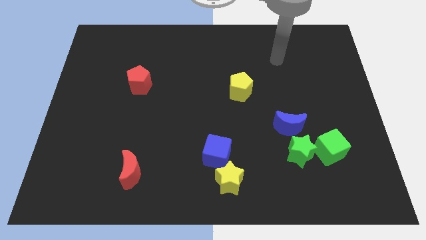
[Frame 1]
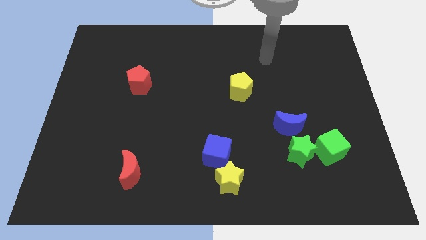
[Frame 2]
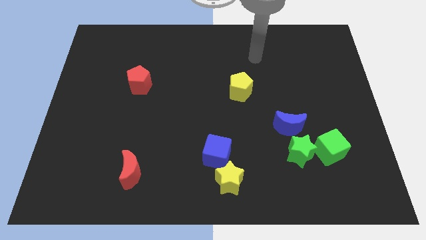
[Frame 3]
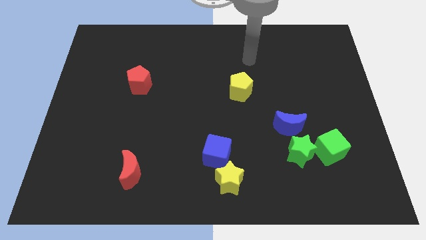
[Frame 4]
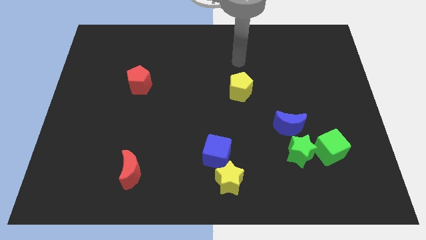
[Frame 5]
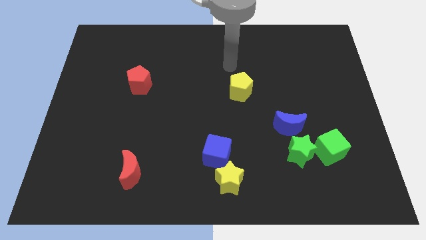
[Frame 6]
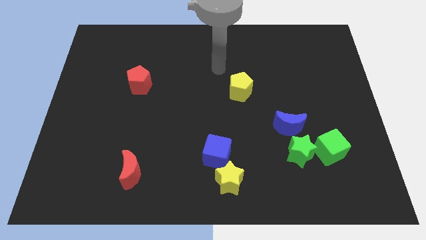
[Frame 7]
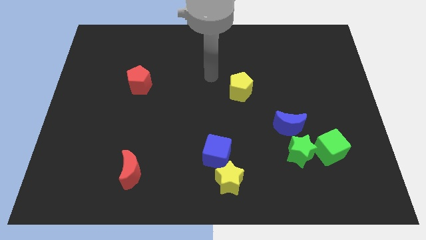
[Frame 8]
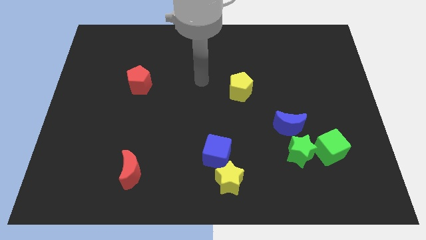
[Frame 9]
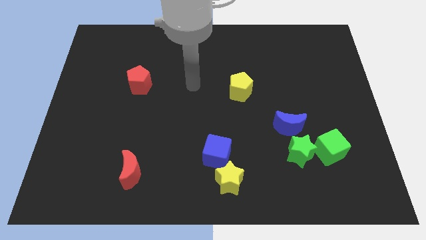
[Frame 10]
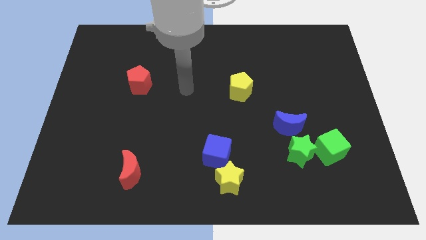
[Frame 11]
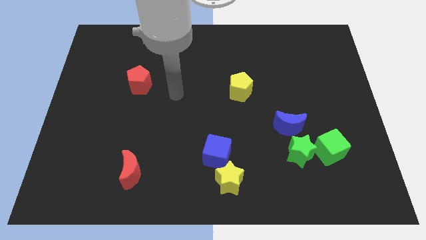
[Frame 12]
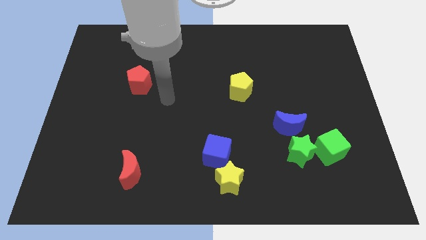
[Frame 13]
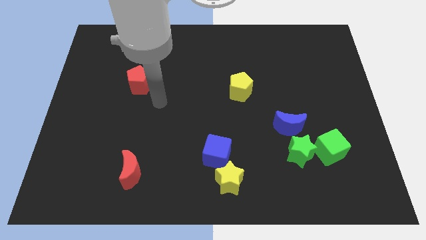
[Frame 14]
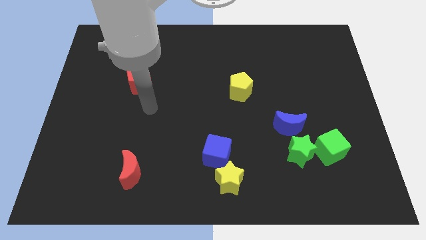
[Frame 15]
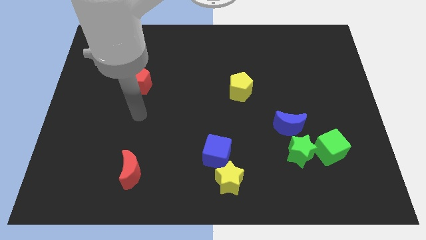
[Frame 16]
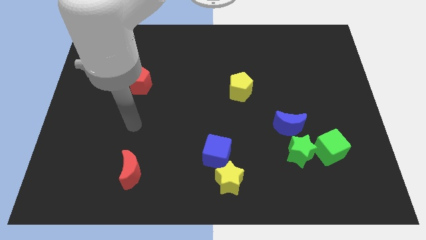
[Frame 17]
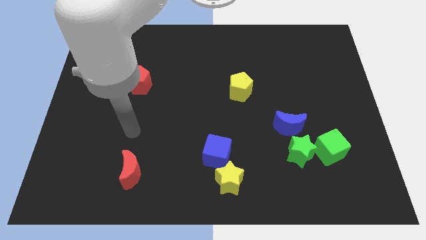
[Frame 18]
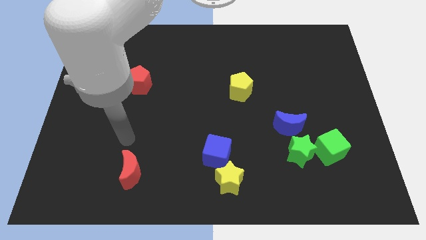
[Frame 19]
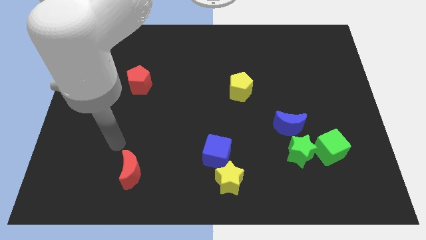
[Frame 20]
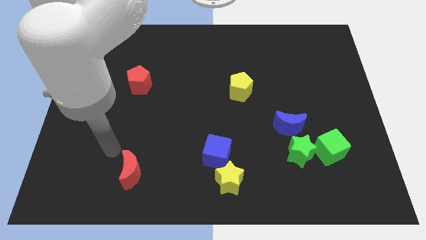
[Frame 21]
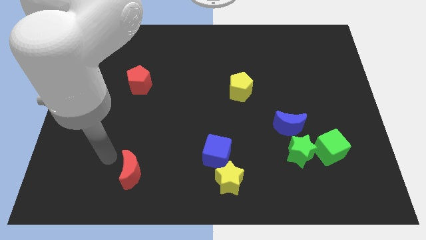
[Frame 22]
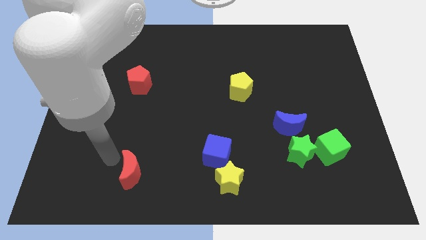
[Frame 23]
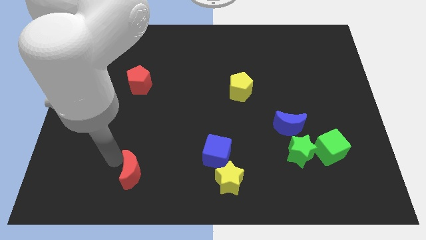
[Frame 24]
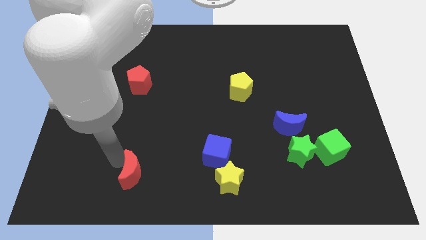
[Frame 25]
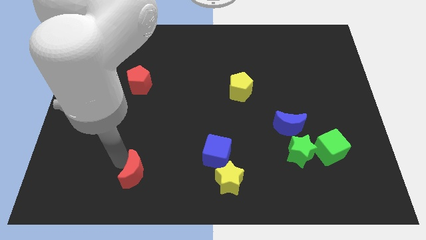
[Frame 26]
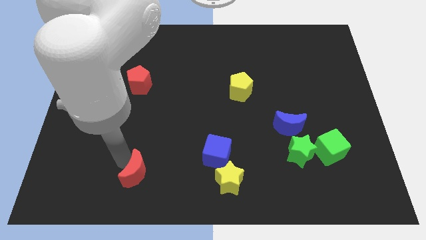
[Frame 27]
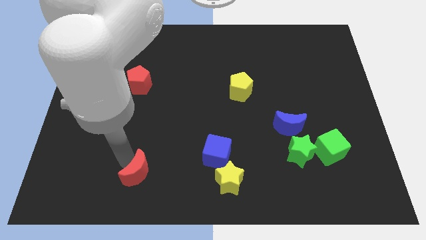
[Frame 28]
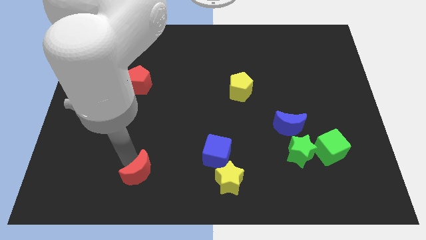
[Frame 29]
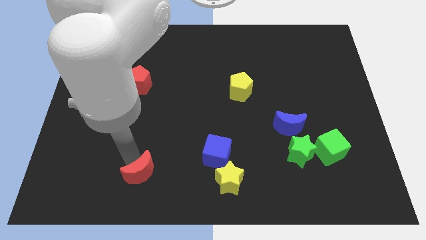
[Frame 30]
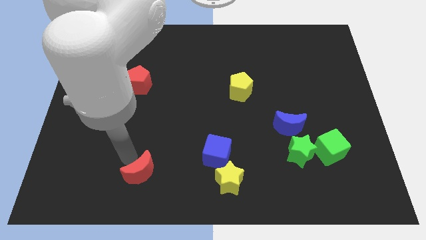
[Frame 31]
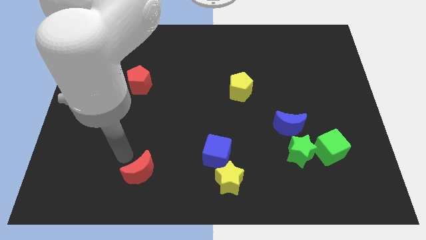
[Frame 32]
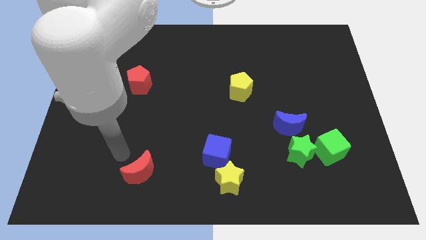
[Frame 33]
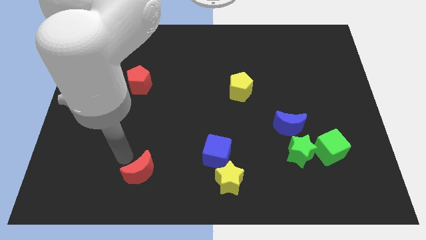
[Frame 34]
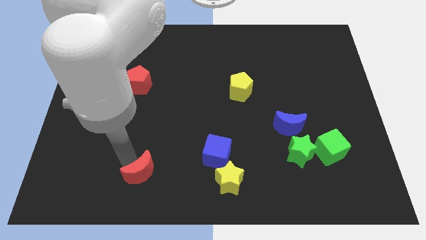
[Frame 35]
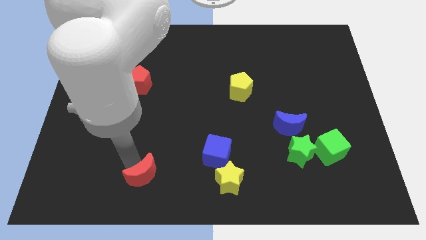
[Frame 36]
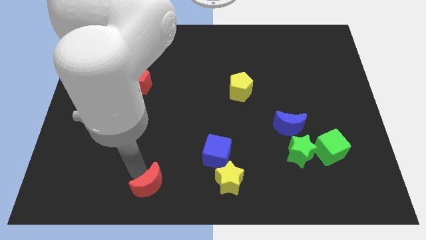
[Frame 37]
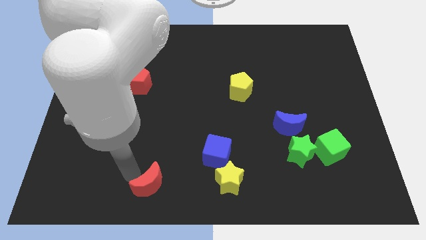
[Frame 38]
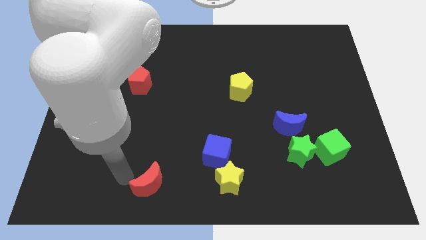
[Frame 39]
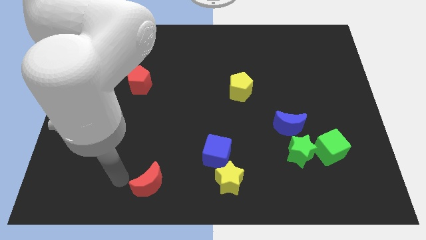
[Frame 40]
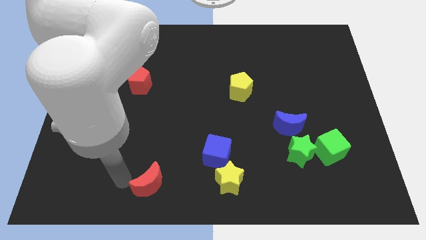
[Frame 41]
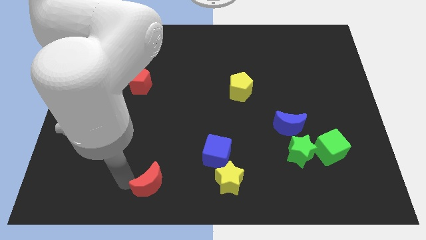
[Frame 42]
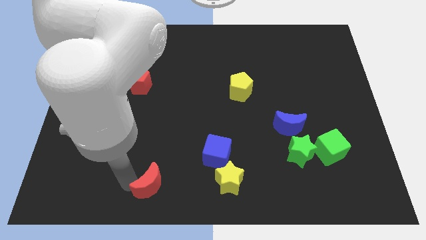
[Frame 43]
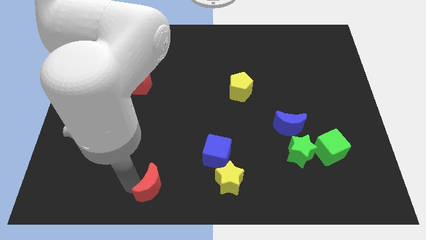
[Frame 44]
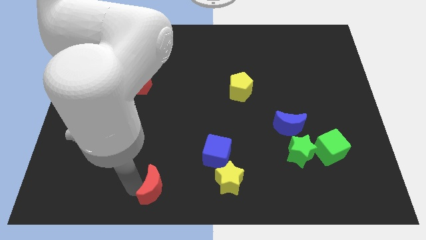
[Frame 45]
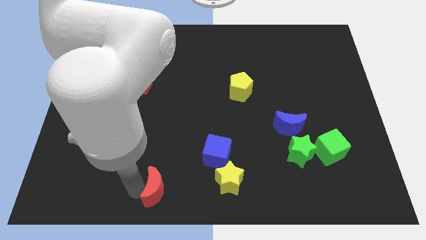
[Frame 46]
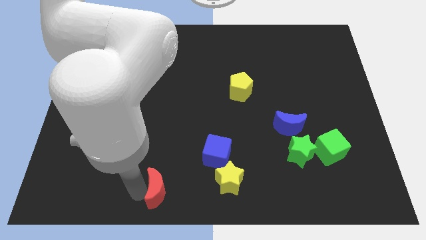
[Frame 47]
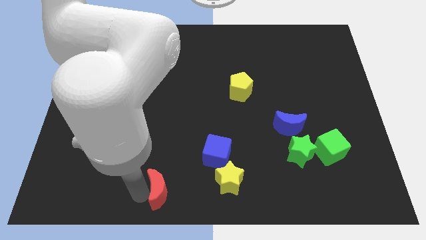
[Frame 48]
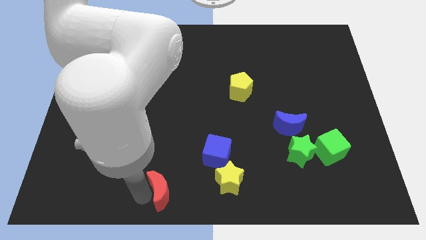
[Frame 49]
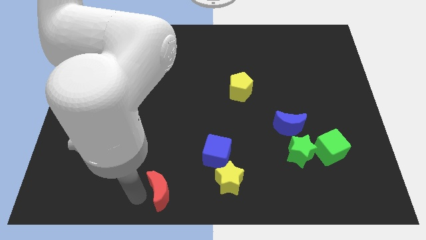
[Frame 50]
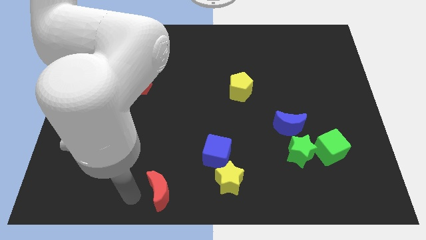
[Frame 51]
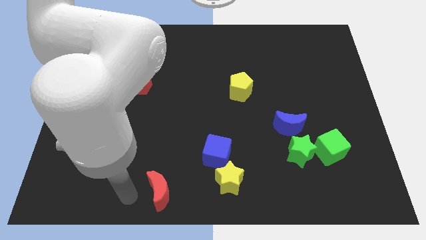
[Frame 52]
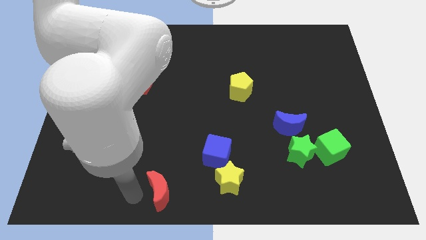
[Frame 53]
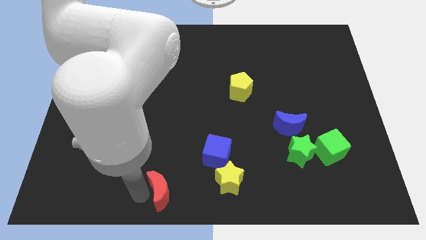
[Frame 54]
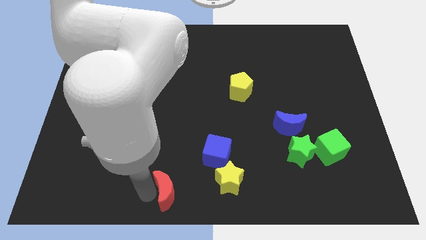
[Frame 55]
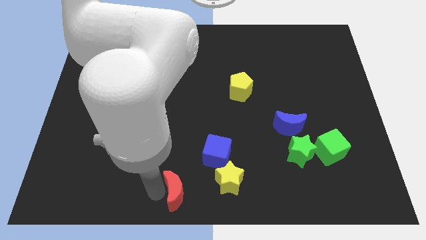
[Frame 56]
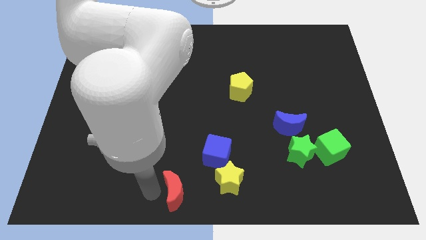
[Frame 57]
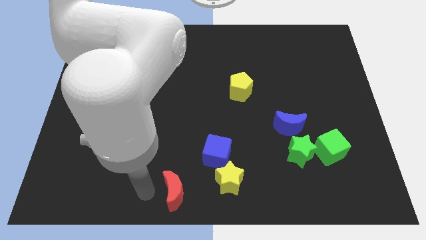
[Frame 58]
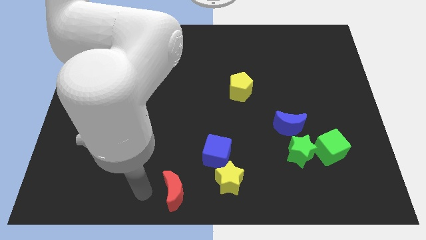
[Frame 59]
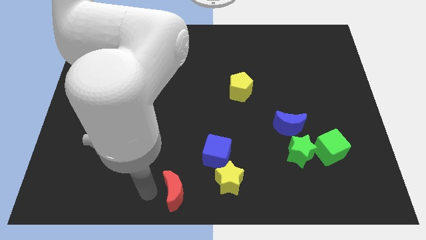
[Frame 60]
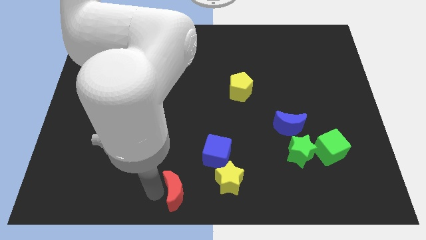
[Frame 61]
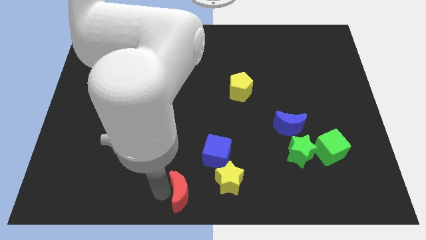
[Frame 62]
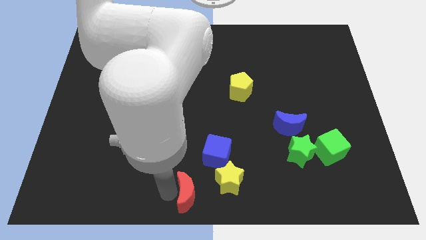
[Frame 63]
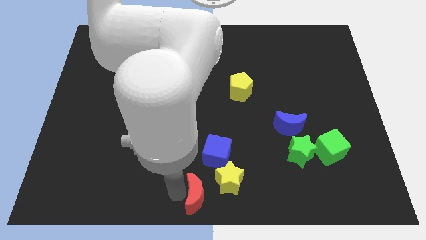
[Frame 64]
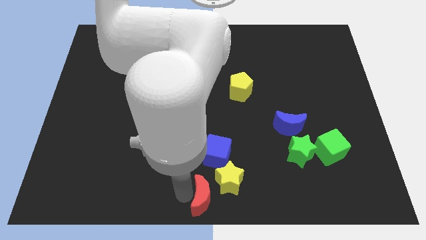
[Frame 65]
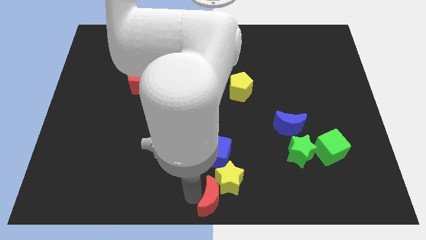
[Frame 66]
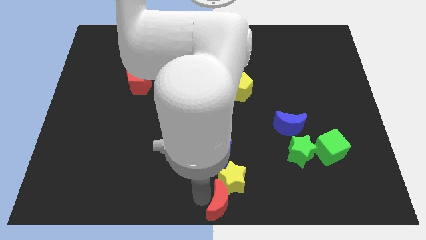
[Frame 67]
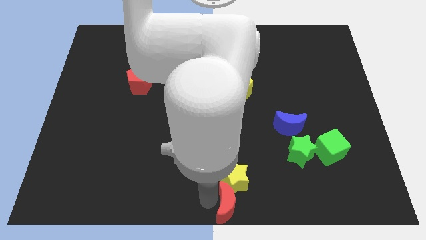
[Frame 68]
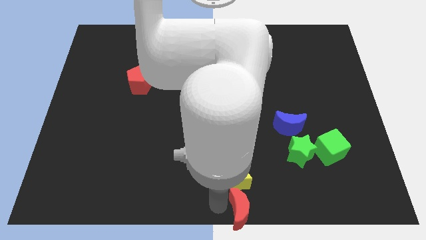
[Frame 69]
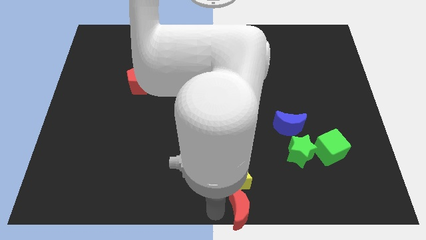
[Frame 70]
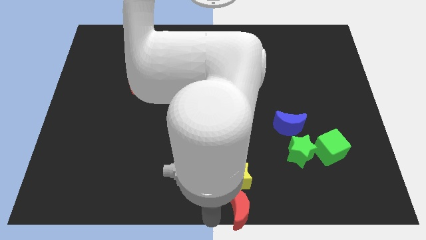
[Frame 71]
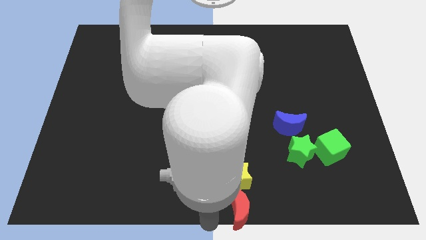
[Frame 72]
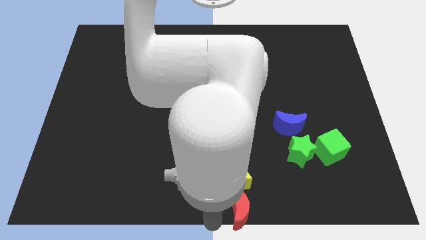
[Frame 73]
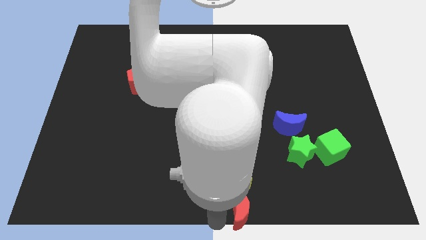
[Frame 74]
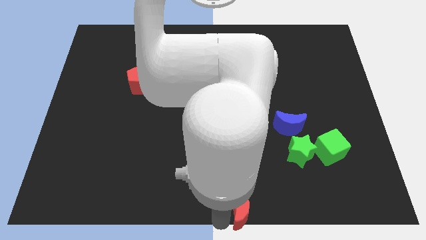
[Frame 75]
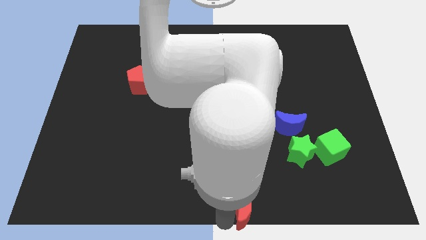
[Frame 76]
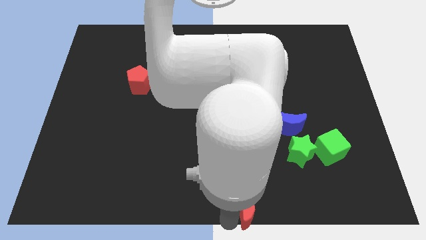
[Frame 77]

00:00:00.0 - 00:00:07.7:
move the red moon to the right

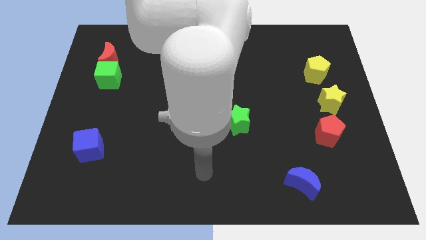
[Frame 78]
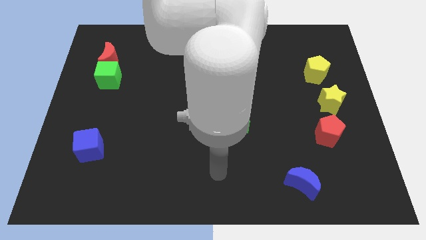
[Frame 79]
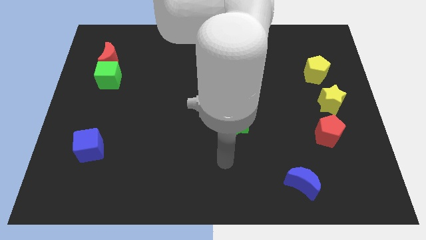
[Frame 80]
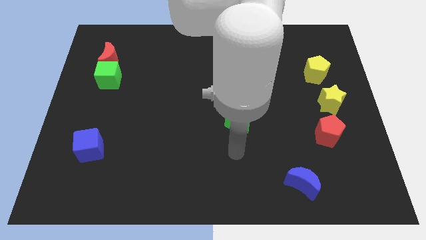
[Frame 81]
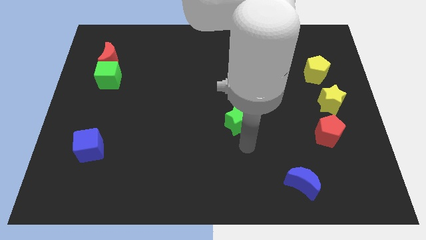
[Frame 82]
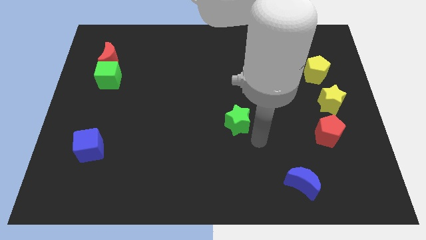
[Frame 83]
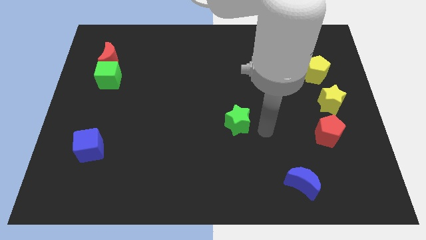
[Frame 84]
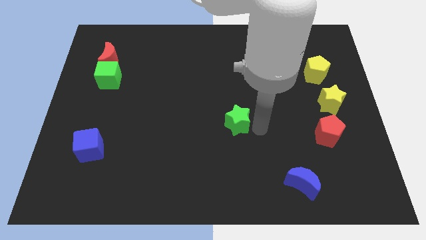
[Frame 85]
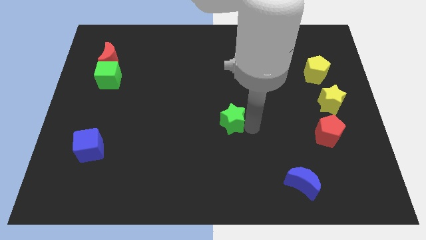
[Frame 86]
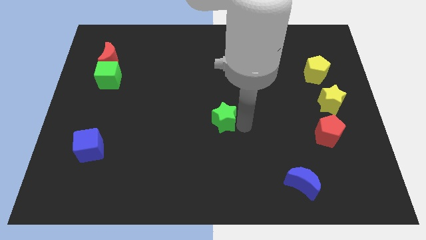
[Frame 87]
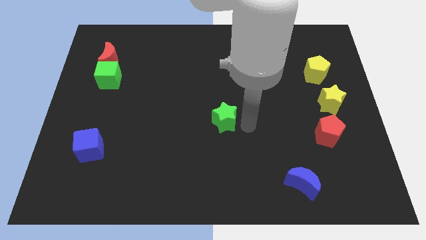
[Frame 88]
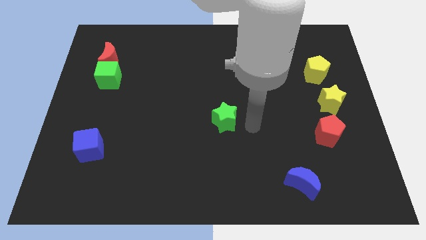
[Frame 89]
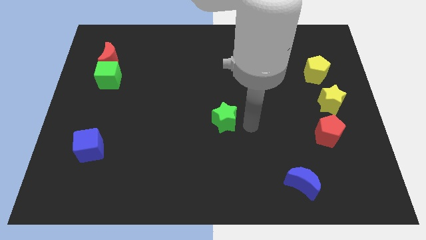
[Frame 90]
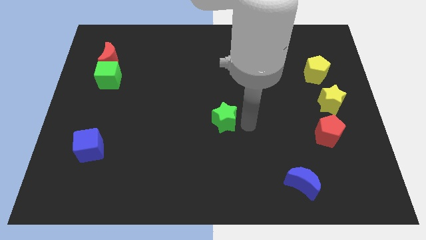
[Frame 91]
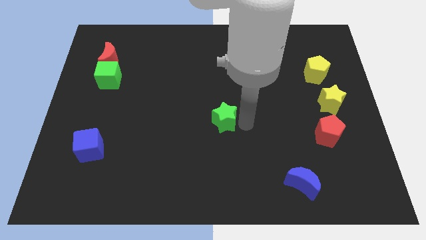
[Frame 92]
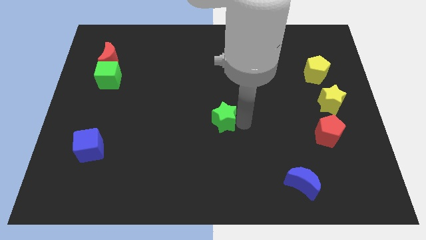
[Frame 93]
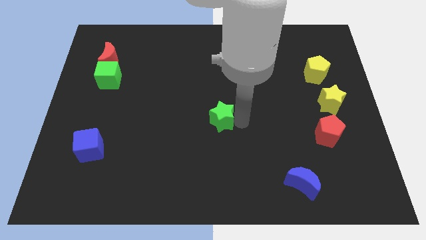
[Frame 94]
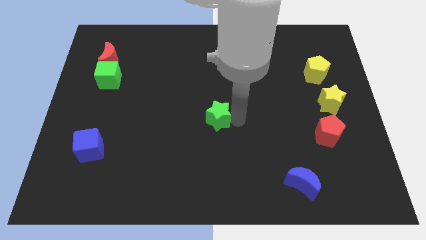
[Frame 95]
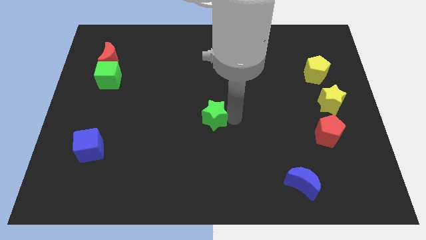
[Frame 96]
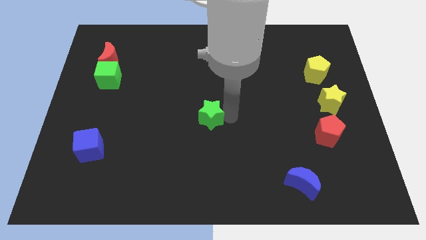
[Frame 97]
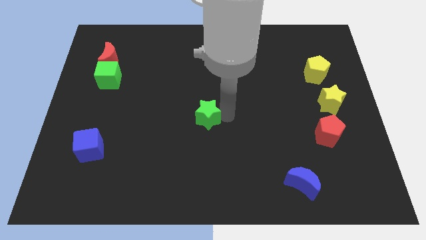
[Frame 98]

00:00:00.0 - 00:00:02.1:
push the green star left a little bit
